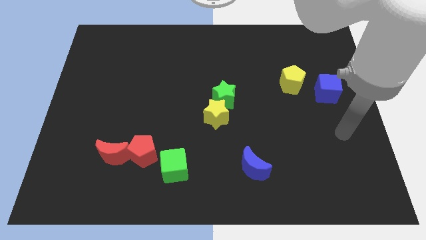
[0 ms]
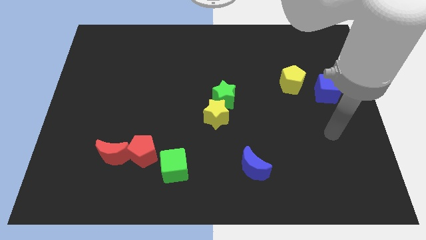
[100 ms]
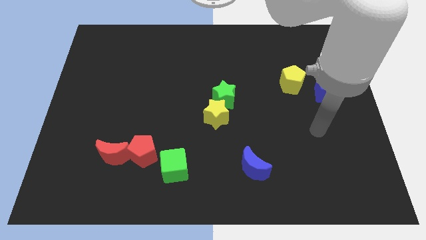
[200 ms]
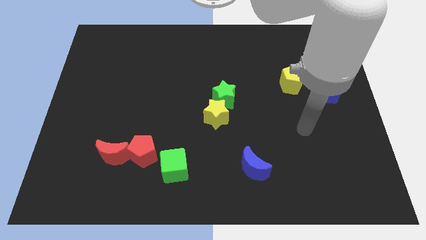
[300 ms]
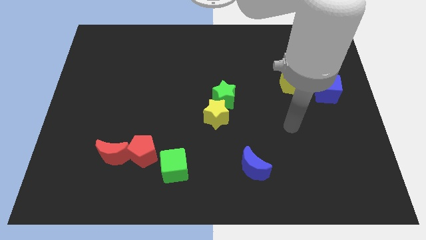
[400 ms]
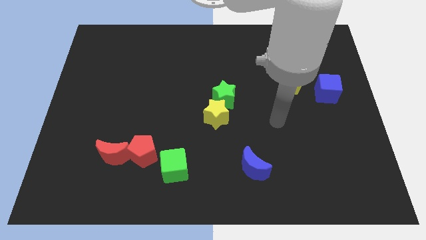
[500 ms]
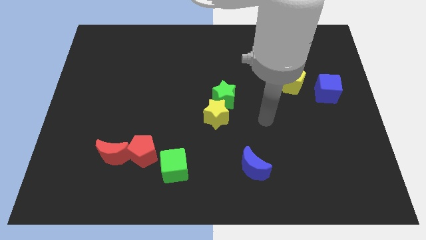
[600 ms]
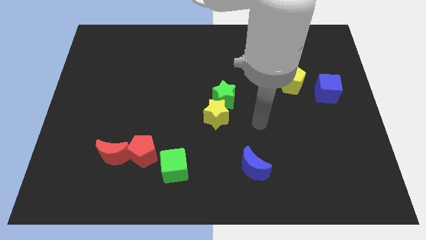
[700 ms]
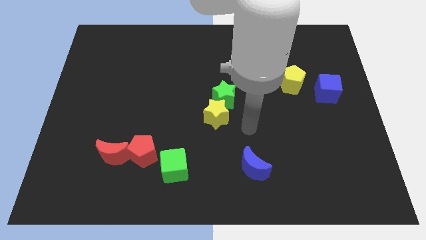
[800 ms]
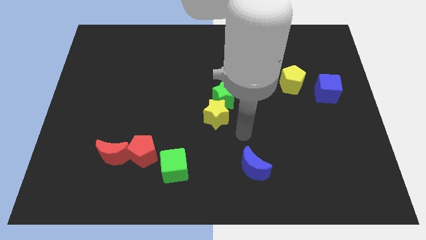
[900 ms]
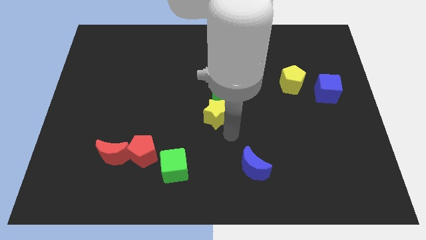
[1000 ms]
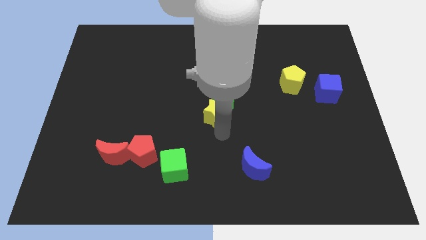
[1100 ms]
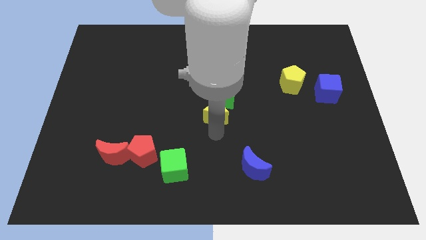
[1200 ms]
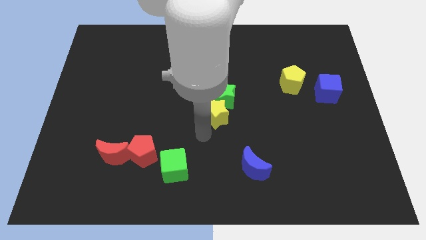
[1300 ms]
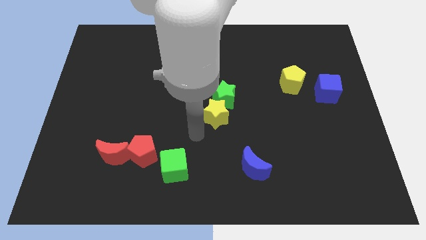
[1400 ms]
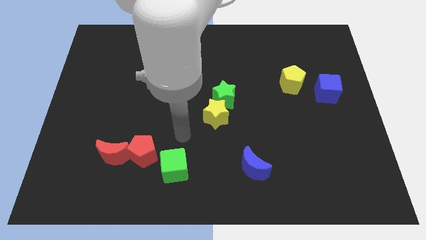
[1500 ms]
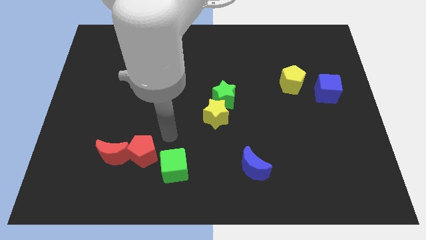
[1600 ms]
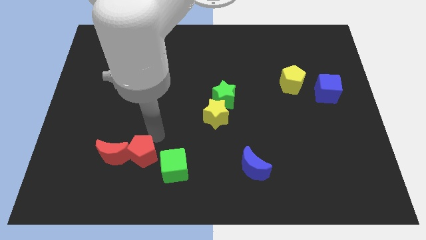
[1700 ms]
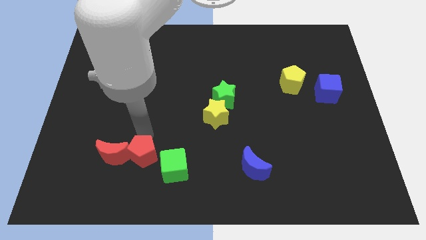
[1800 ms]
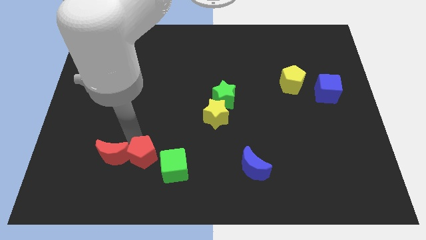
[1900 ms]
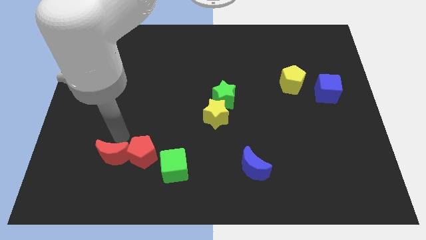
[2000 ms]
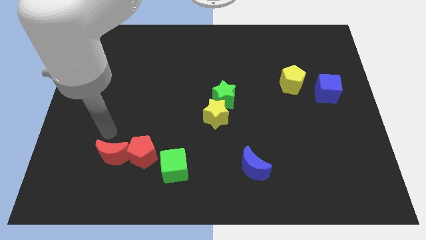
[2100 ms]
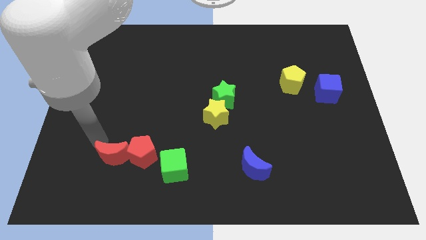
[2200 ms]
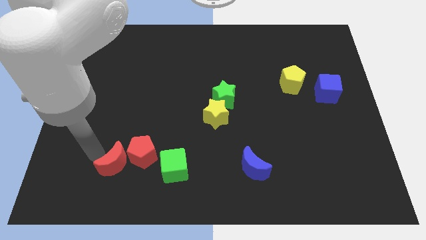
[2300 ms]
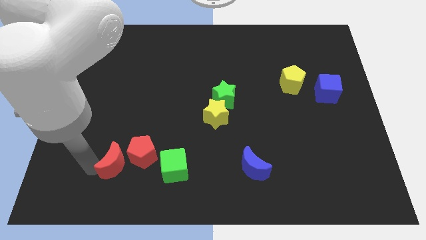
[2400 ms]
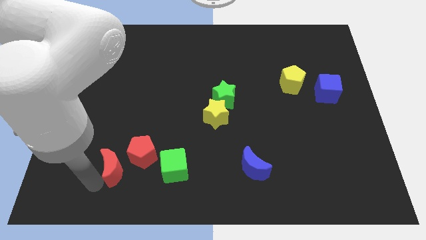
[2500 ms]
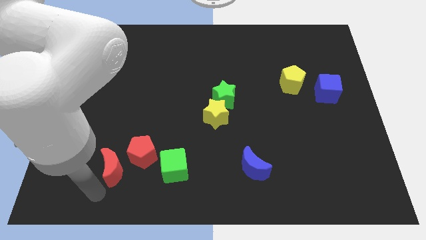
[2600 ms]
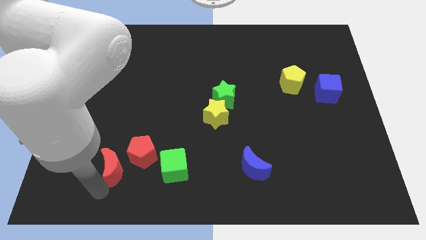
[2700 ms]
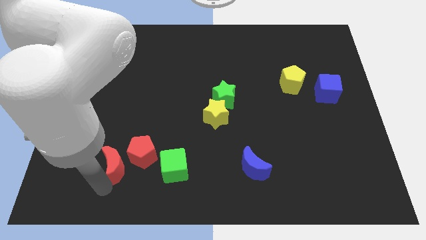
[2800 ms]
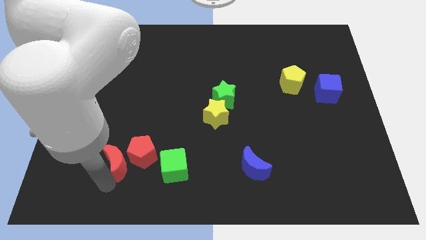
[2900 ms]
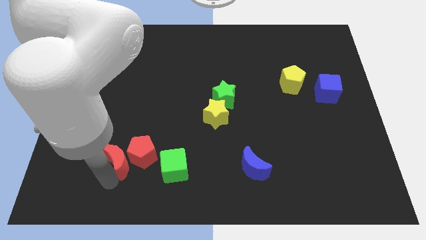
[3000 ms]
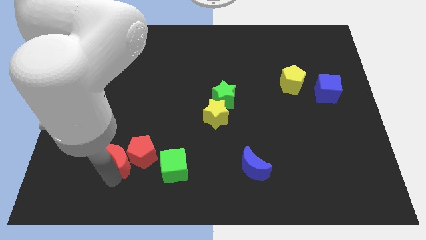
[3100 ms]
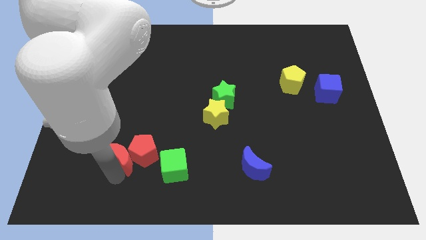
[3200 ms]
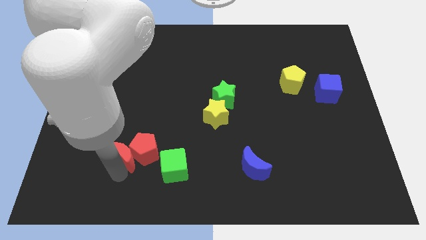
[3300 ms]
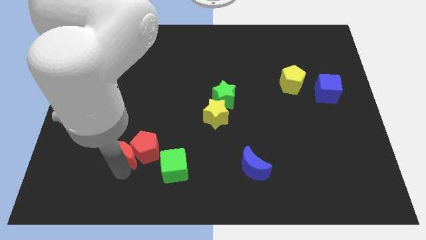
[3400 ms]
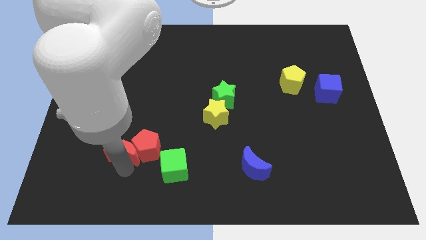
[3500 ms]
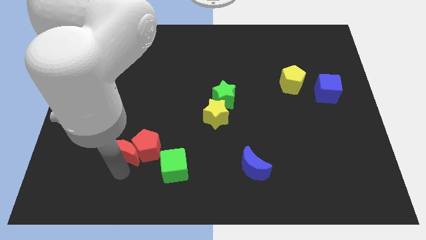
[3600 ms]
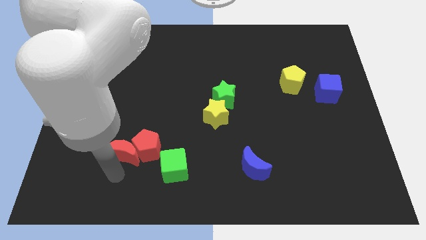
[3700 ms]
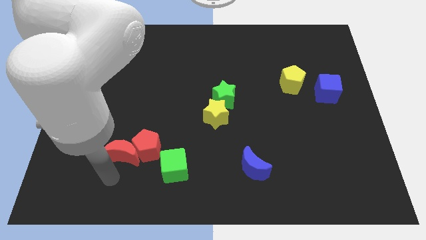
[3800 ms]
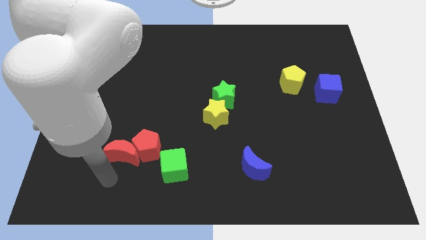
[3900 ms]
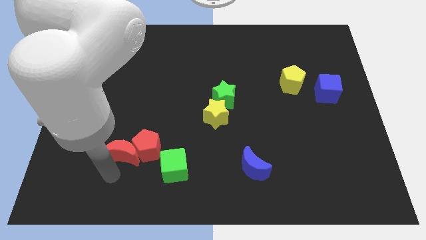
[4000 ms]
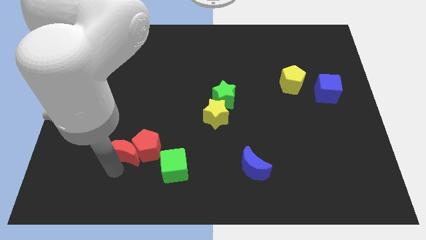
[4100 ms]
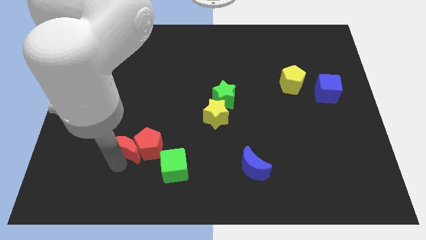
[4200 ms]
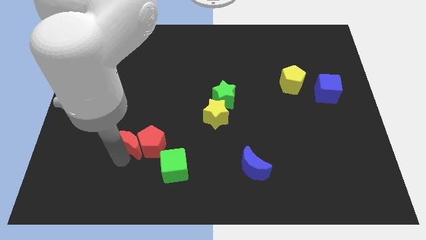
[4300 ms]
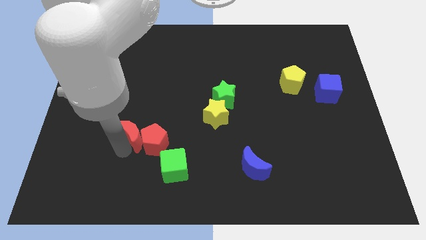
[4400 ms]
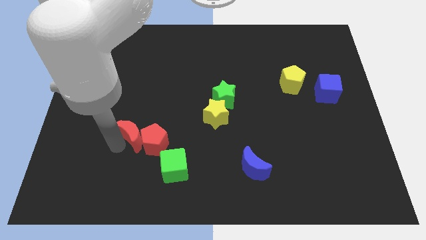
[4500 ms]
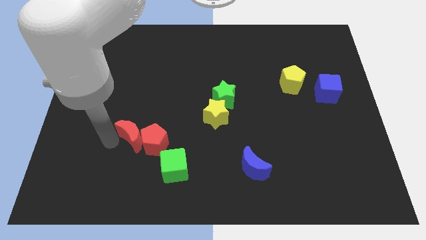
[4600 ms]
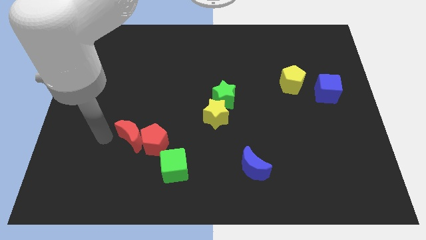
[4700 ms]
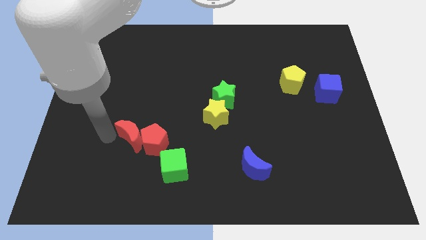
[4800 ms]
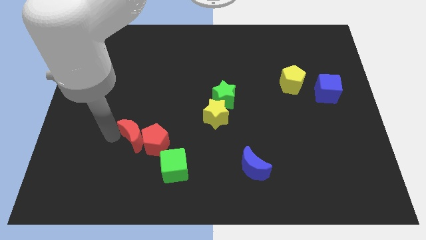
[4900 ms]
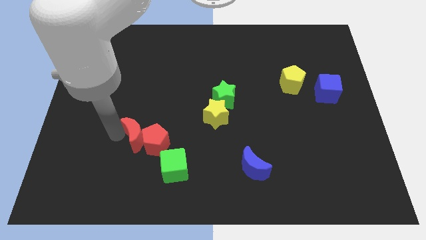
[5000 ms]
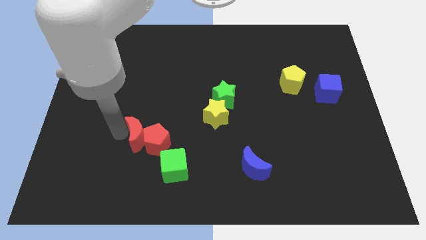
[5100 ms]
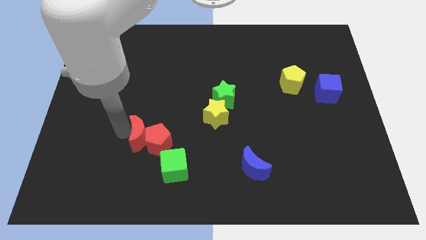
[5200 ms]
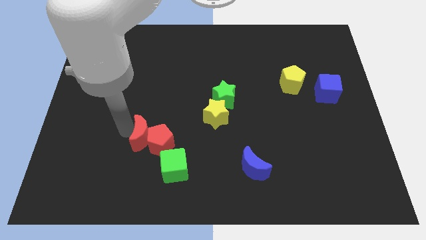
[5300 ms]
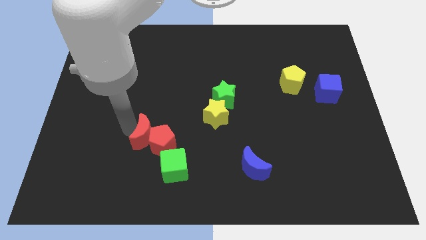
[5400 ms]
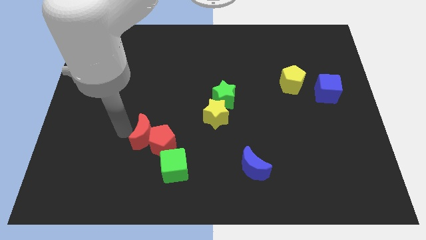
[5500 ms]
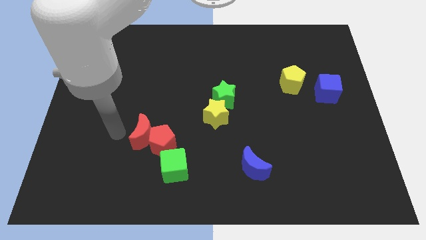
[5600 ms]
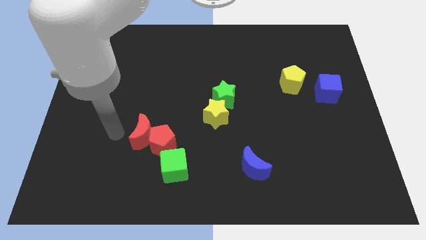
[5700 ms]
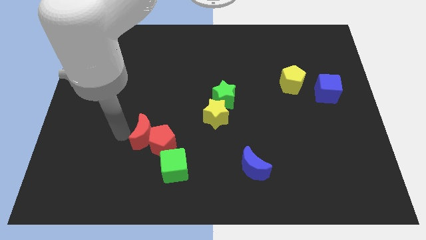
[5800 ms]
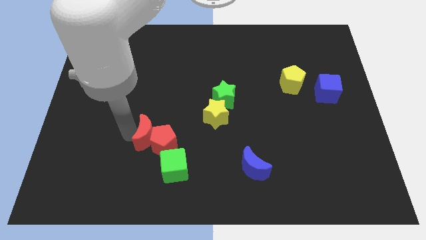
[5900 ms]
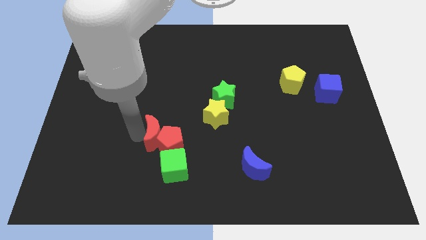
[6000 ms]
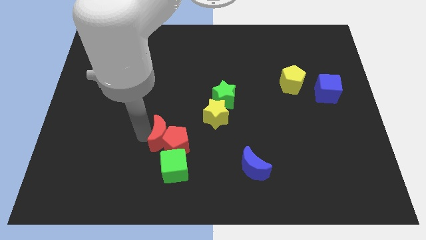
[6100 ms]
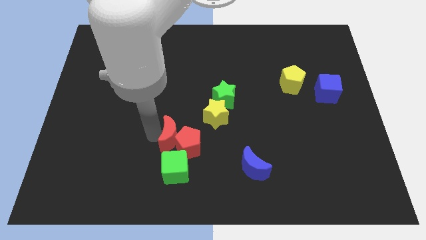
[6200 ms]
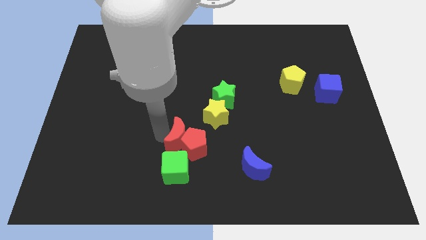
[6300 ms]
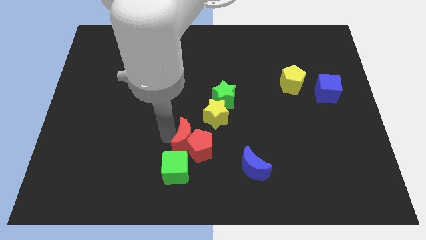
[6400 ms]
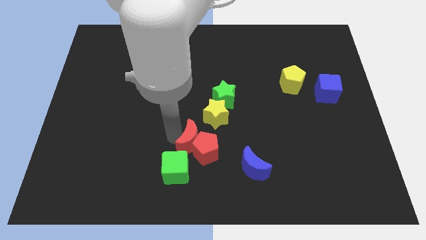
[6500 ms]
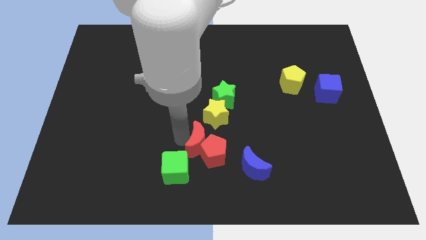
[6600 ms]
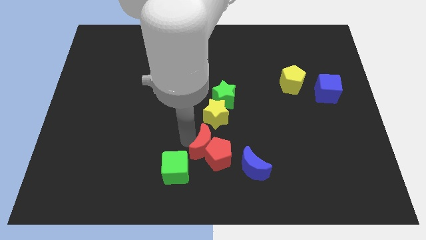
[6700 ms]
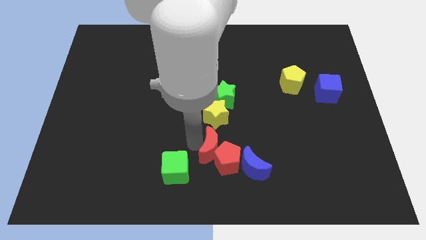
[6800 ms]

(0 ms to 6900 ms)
move the red moon right

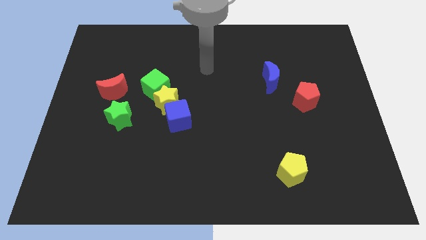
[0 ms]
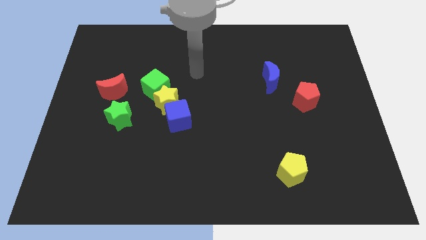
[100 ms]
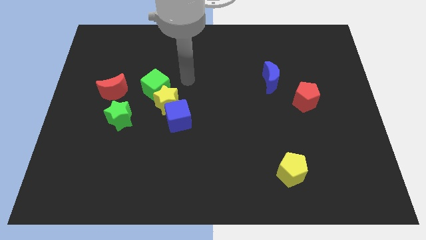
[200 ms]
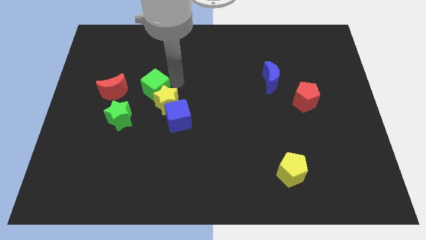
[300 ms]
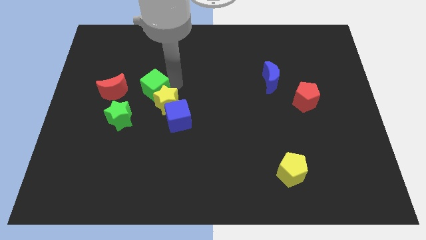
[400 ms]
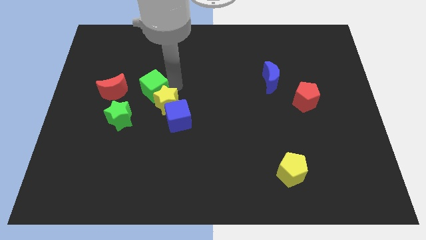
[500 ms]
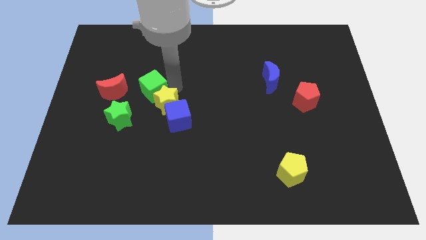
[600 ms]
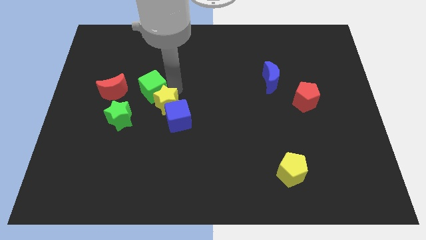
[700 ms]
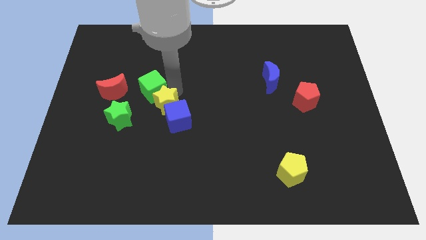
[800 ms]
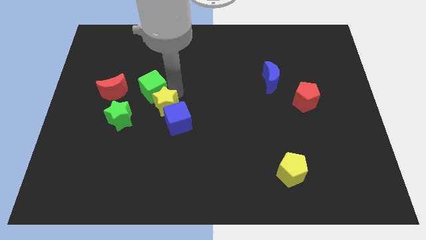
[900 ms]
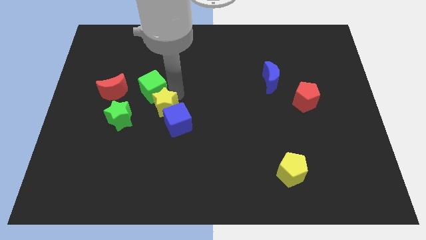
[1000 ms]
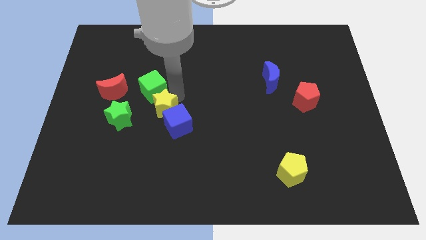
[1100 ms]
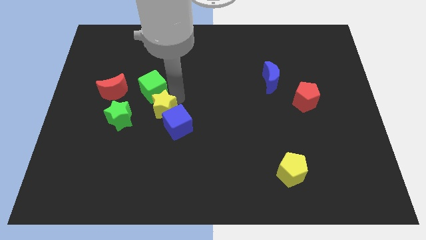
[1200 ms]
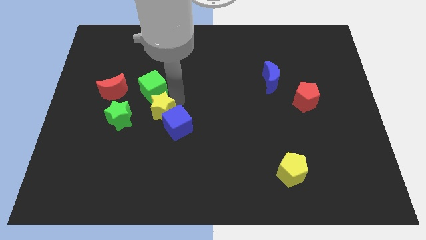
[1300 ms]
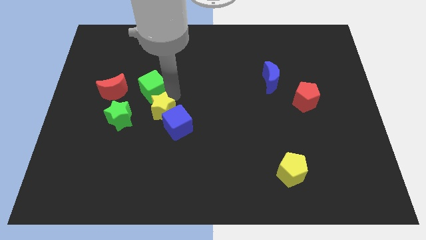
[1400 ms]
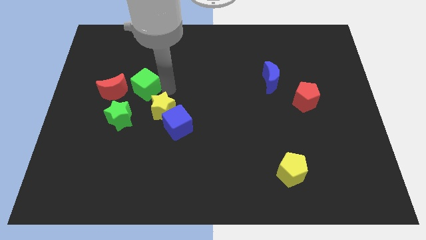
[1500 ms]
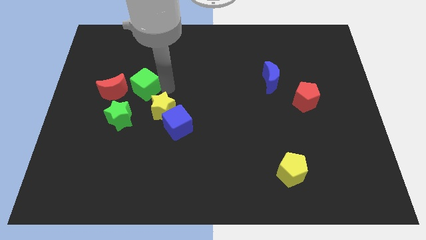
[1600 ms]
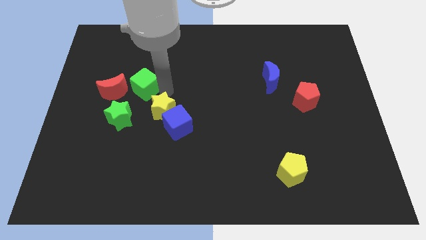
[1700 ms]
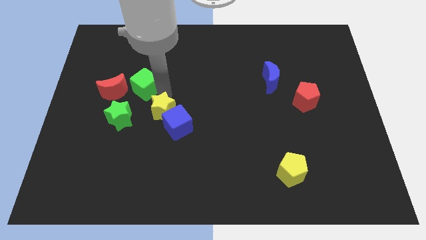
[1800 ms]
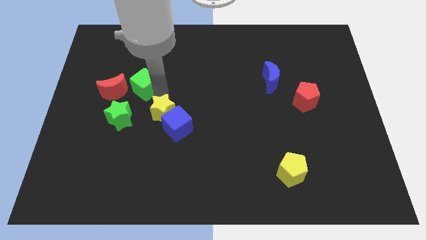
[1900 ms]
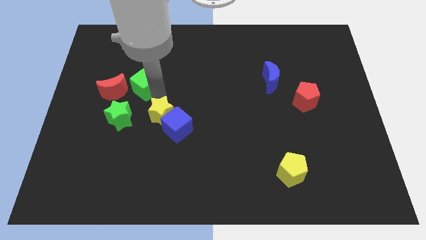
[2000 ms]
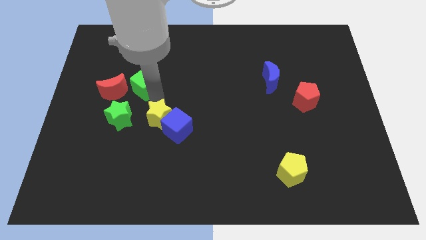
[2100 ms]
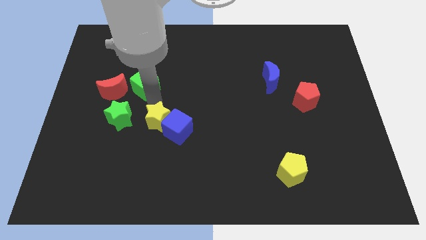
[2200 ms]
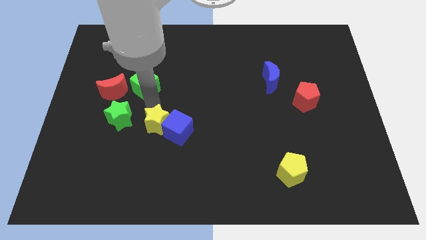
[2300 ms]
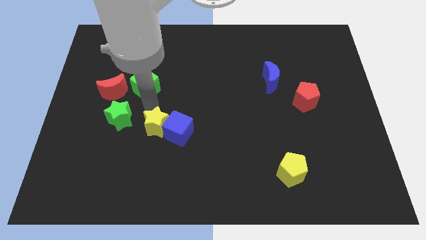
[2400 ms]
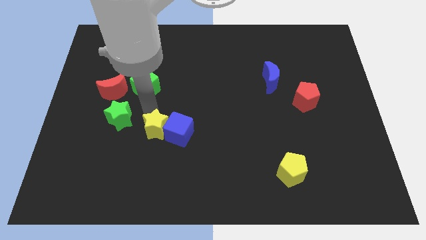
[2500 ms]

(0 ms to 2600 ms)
push the yellow star a bit down
